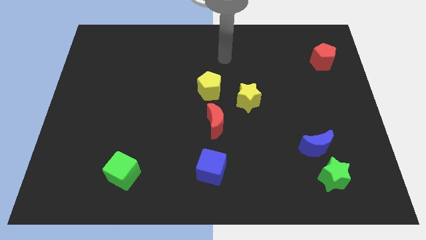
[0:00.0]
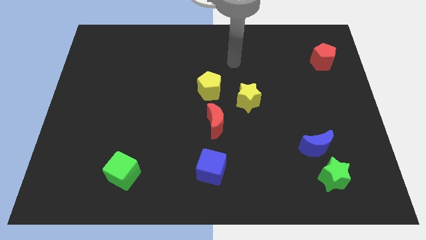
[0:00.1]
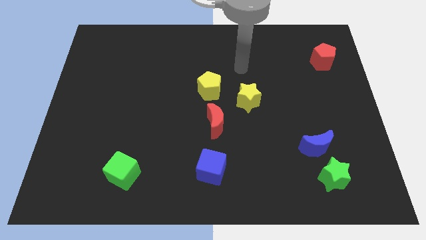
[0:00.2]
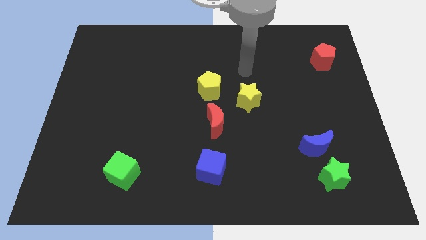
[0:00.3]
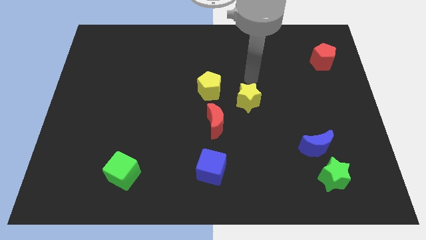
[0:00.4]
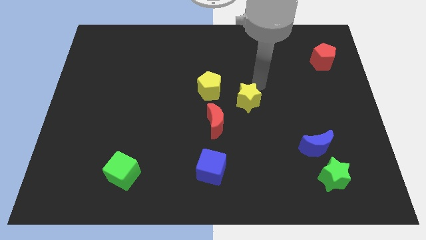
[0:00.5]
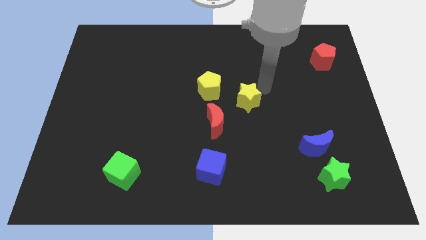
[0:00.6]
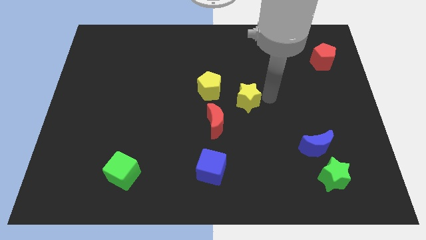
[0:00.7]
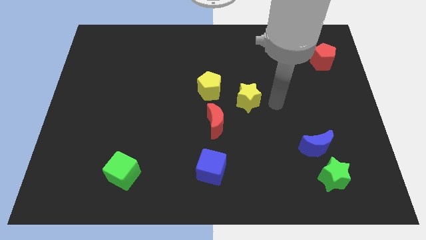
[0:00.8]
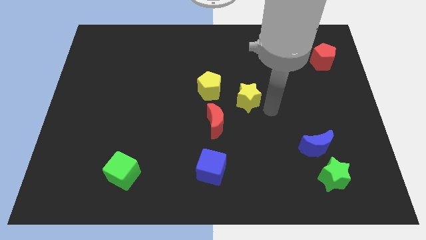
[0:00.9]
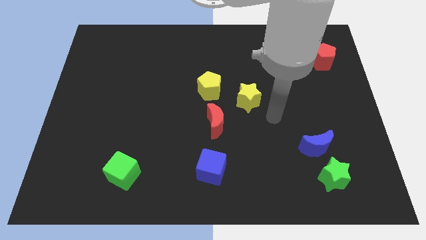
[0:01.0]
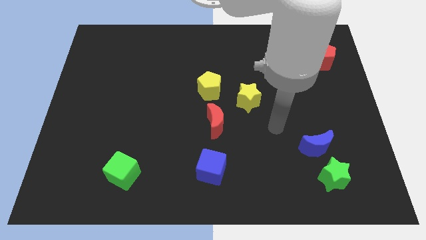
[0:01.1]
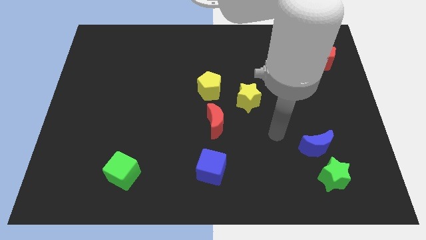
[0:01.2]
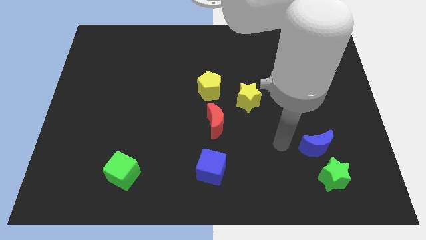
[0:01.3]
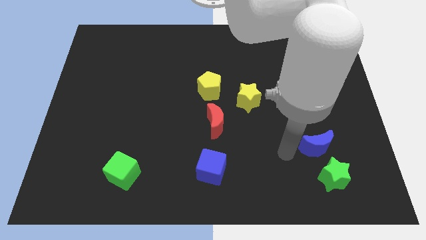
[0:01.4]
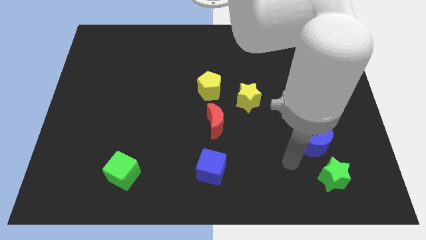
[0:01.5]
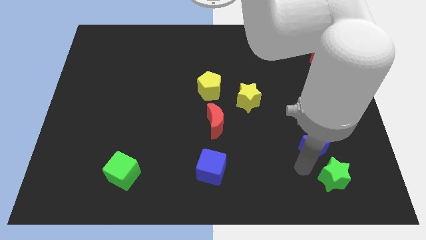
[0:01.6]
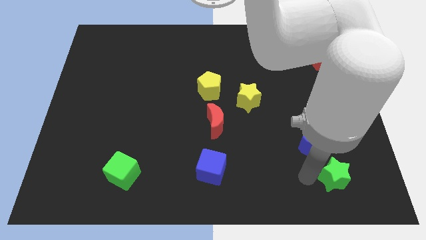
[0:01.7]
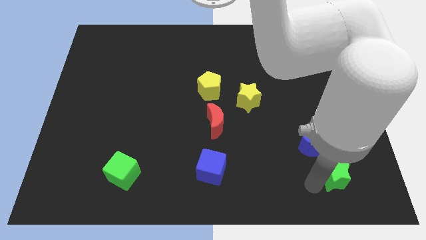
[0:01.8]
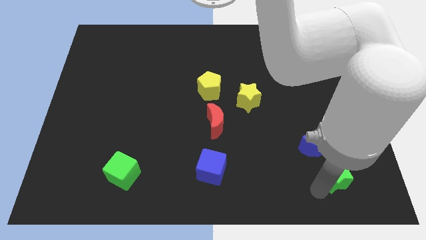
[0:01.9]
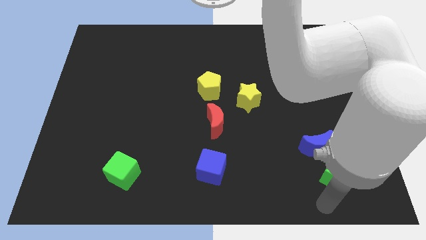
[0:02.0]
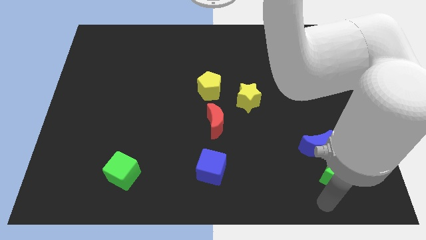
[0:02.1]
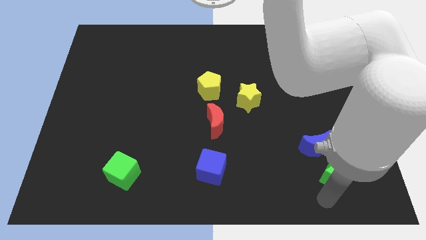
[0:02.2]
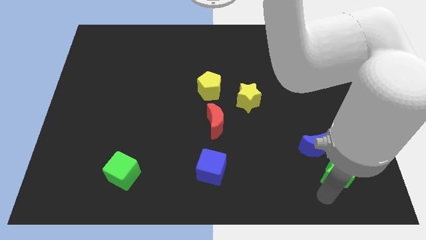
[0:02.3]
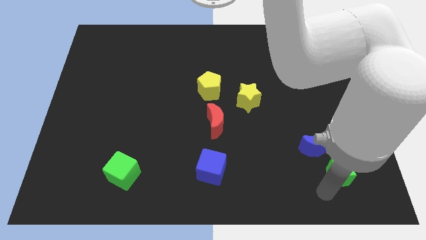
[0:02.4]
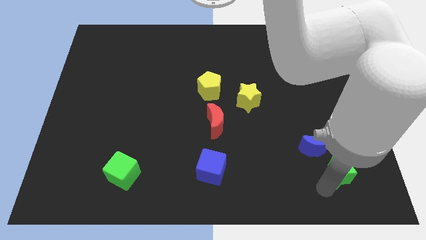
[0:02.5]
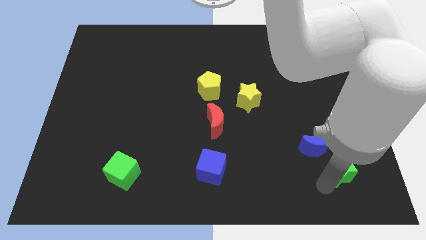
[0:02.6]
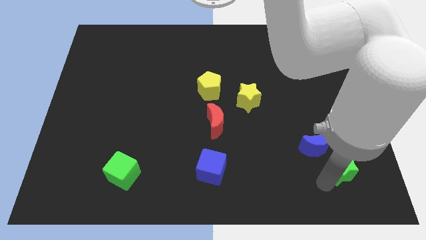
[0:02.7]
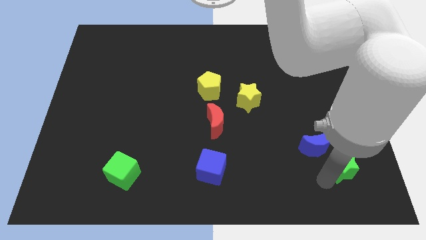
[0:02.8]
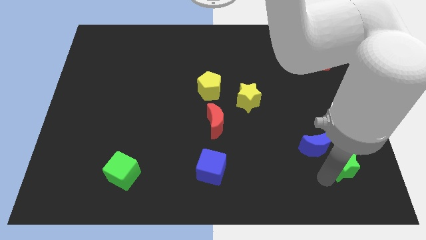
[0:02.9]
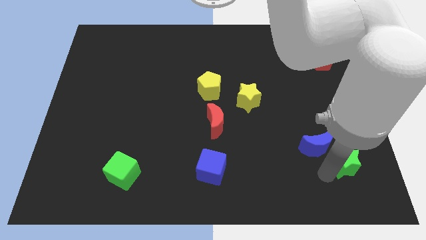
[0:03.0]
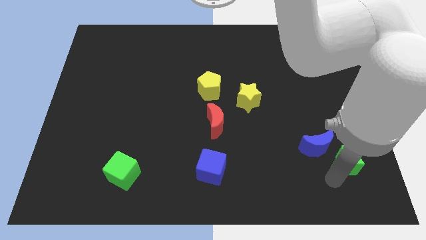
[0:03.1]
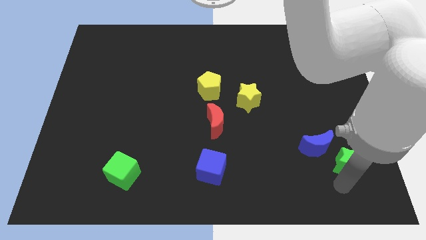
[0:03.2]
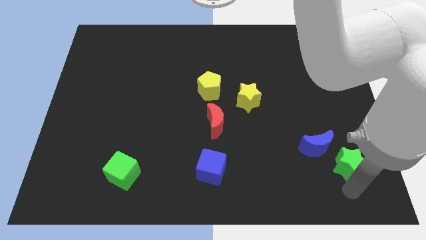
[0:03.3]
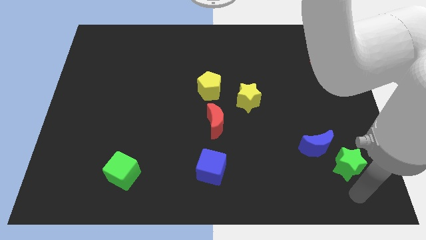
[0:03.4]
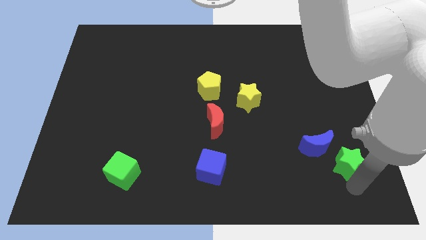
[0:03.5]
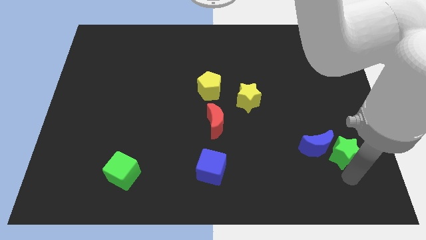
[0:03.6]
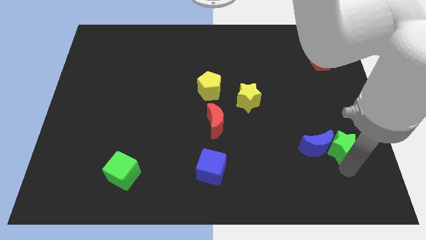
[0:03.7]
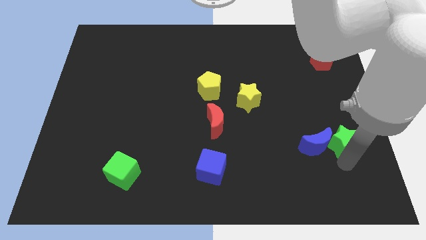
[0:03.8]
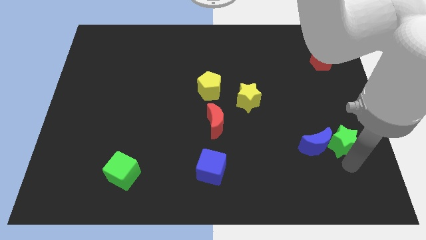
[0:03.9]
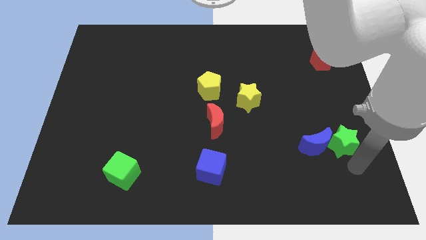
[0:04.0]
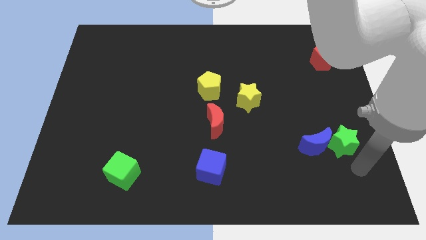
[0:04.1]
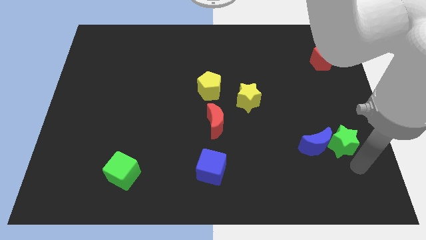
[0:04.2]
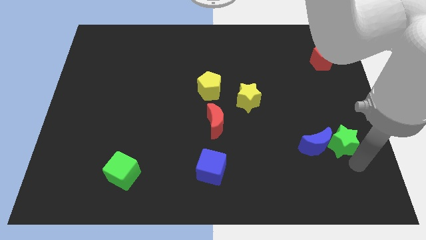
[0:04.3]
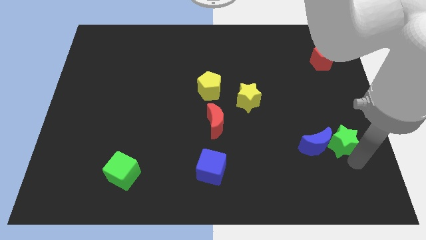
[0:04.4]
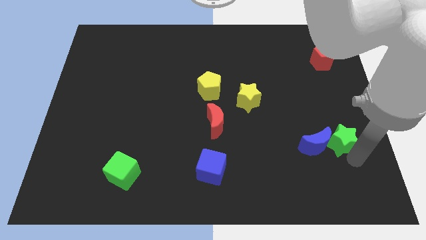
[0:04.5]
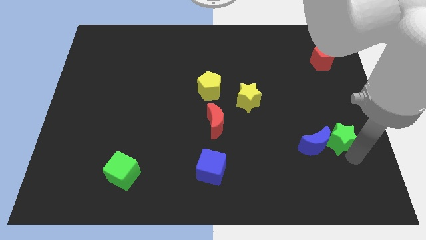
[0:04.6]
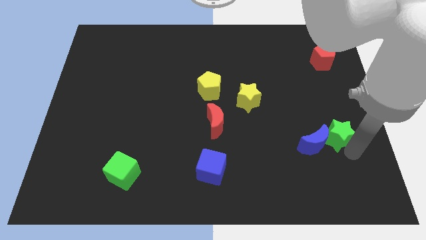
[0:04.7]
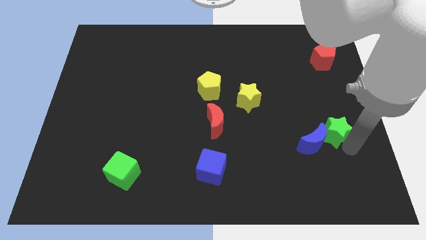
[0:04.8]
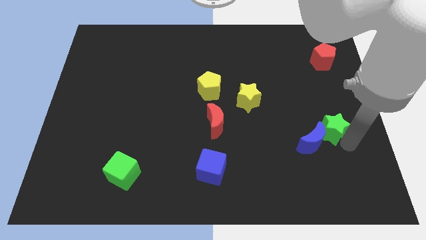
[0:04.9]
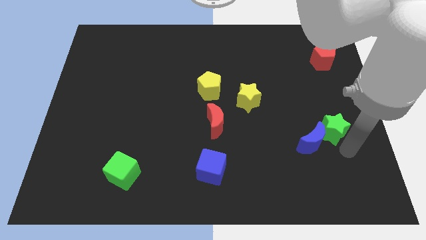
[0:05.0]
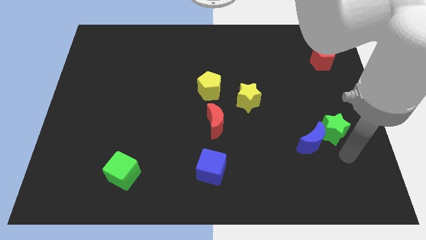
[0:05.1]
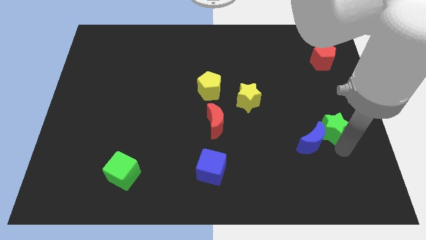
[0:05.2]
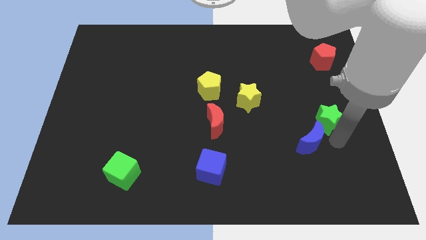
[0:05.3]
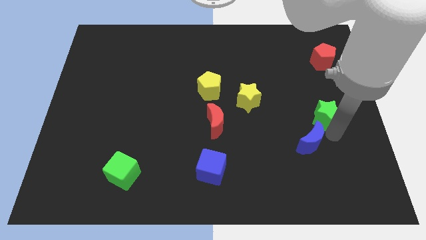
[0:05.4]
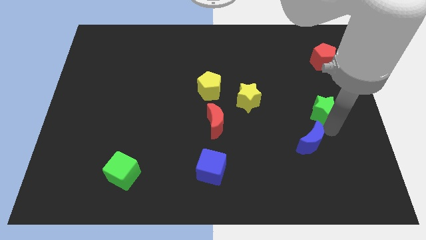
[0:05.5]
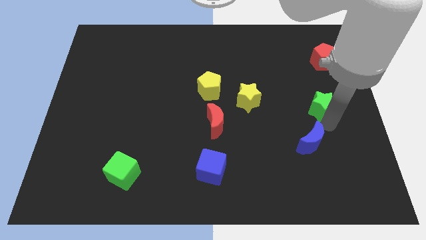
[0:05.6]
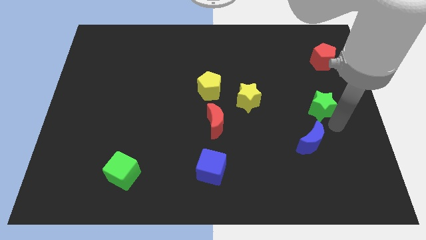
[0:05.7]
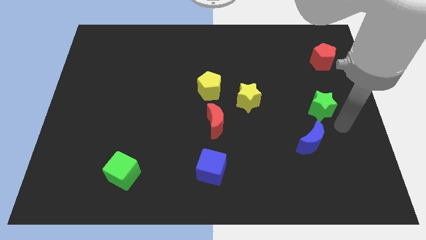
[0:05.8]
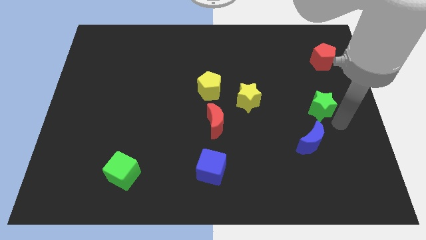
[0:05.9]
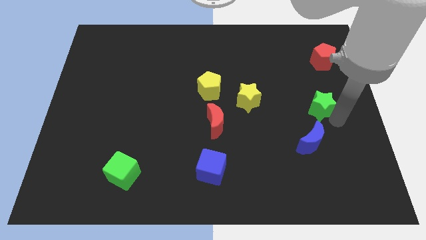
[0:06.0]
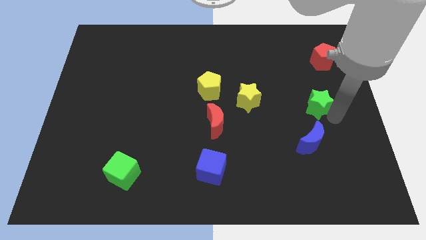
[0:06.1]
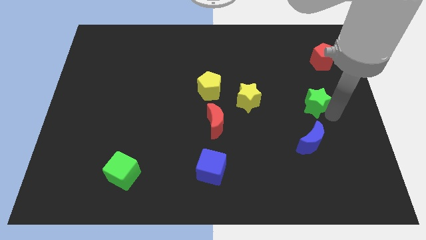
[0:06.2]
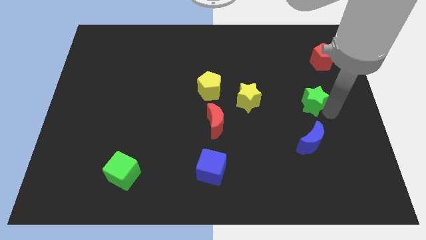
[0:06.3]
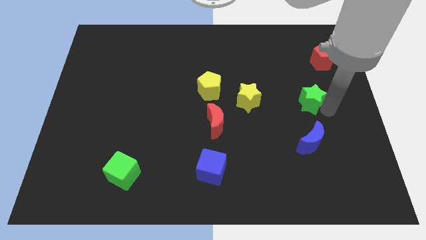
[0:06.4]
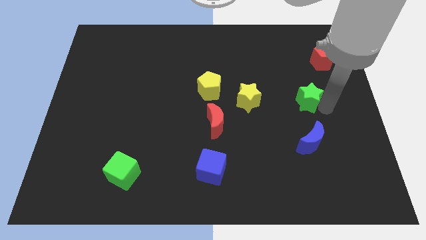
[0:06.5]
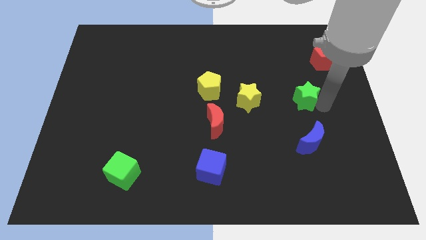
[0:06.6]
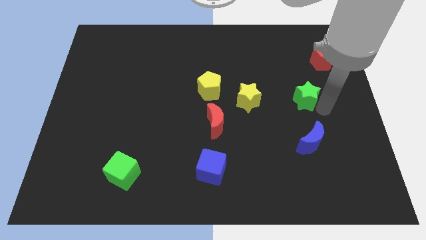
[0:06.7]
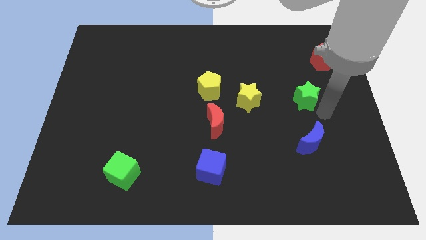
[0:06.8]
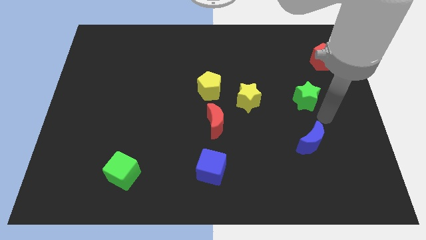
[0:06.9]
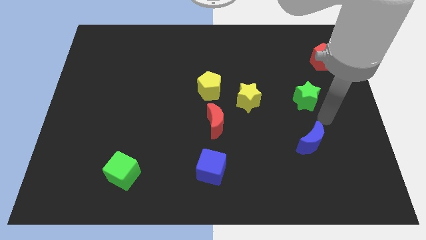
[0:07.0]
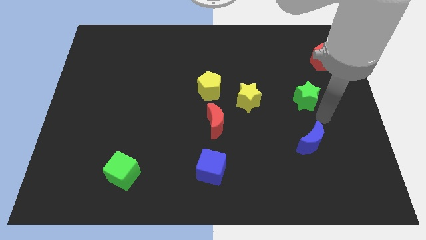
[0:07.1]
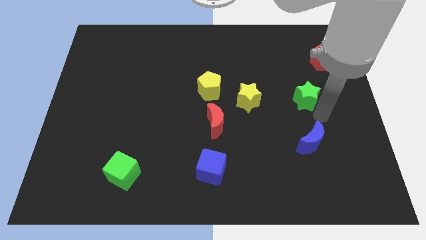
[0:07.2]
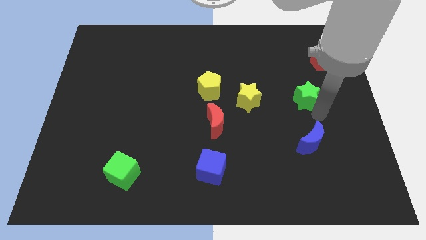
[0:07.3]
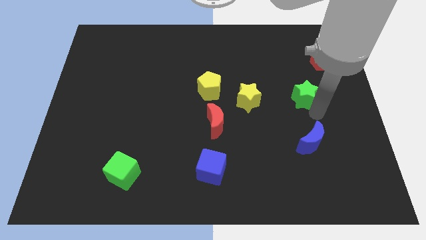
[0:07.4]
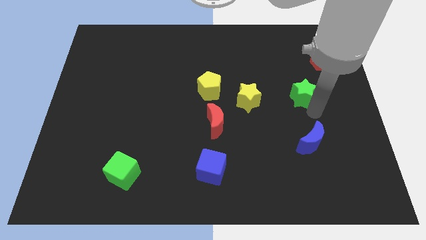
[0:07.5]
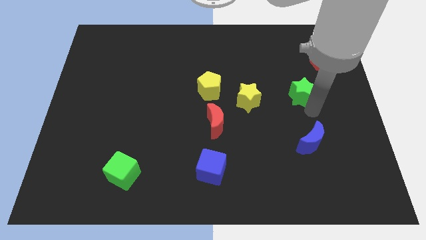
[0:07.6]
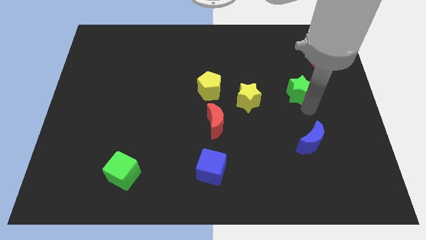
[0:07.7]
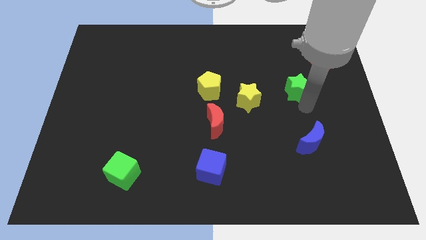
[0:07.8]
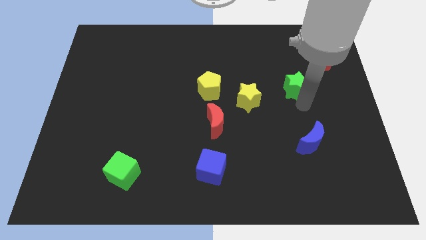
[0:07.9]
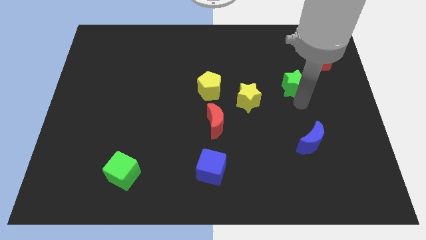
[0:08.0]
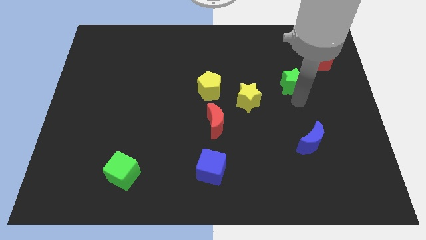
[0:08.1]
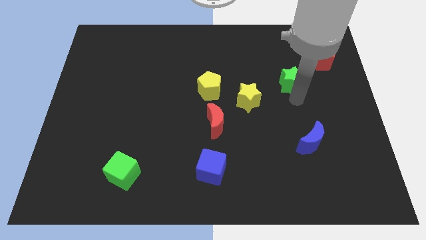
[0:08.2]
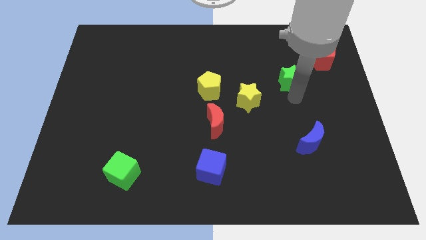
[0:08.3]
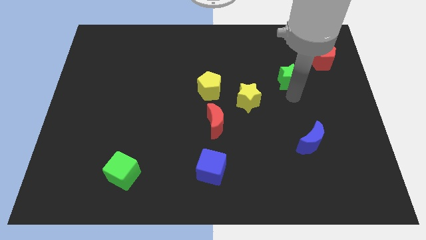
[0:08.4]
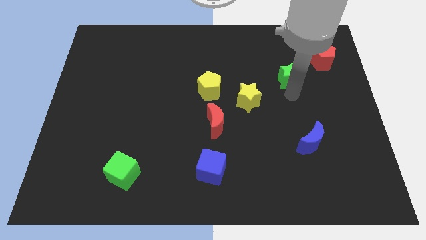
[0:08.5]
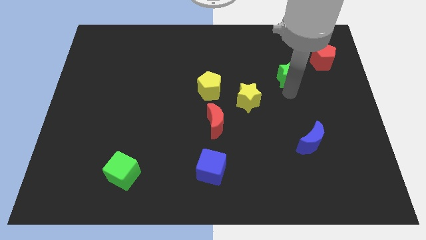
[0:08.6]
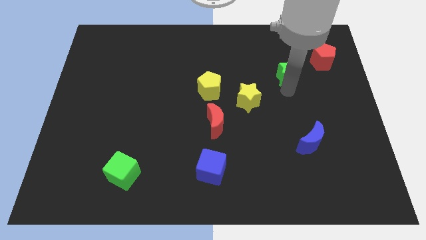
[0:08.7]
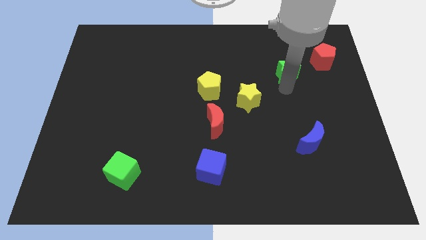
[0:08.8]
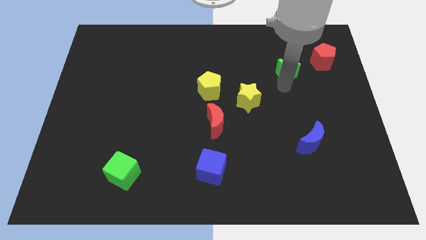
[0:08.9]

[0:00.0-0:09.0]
put the green star left of the red pentagon
